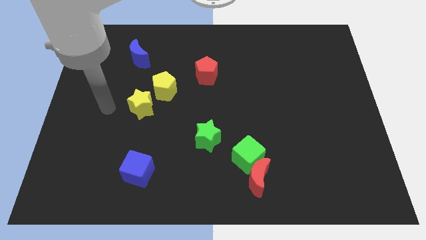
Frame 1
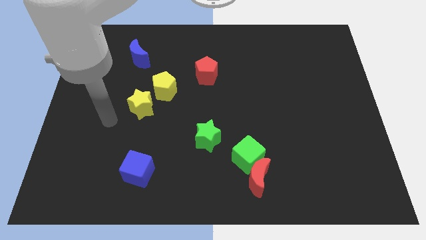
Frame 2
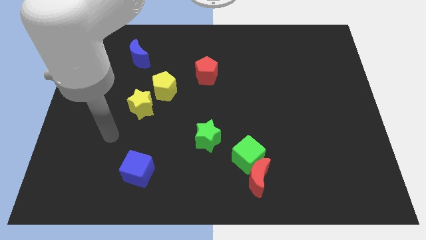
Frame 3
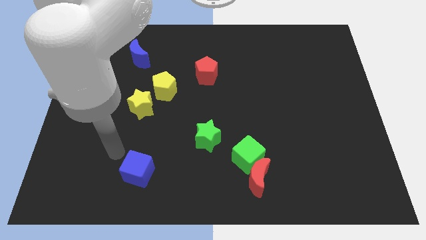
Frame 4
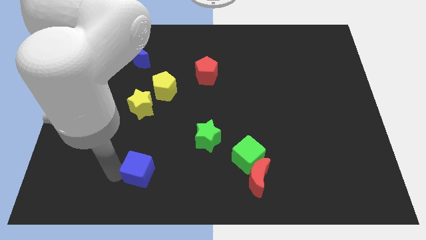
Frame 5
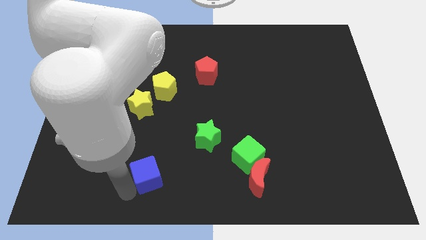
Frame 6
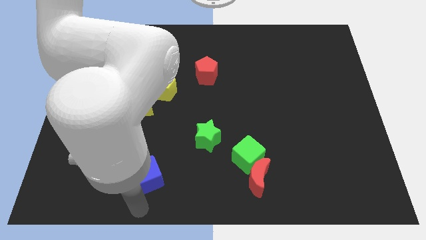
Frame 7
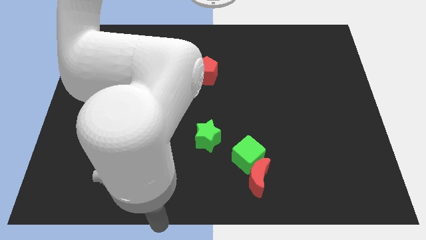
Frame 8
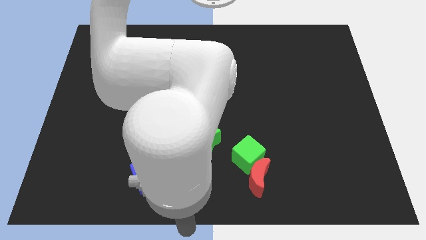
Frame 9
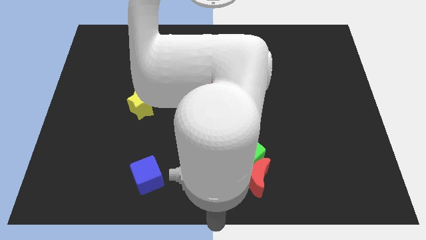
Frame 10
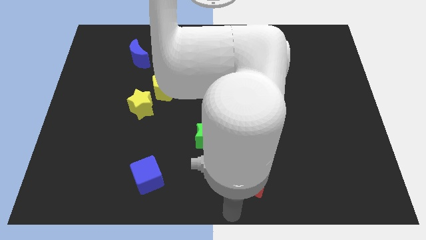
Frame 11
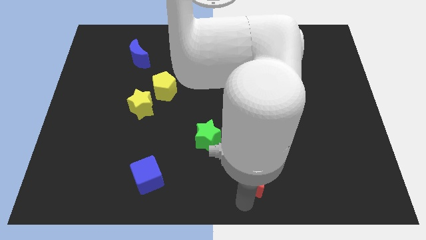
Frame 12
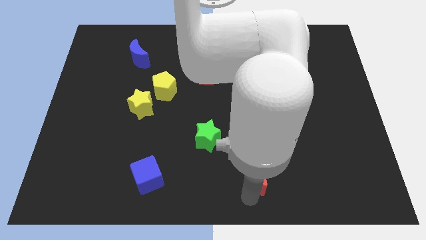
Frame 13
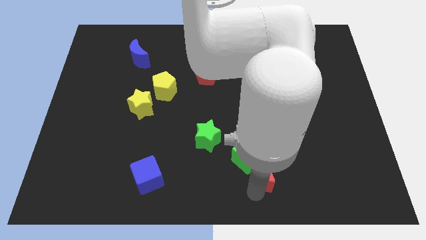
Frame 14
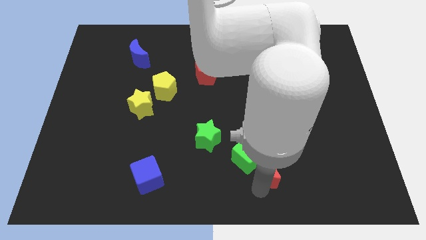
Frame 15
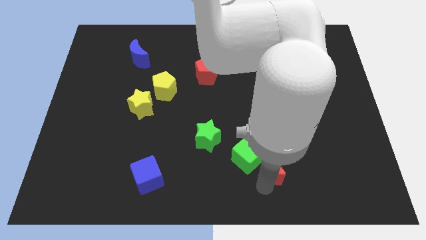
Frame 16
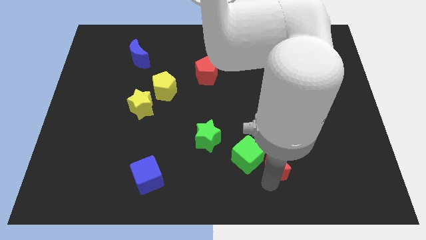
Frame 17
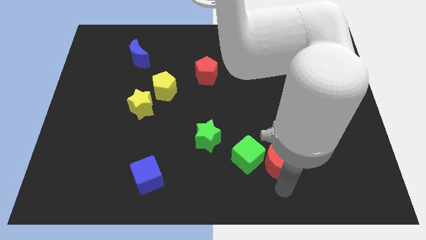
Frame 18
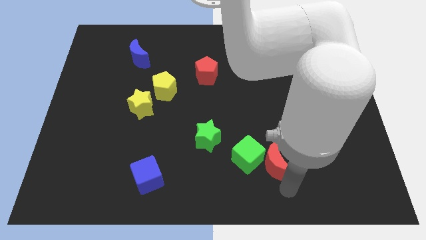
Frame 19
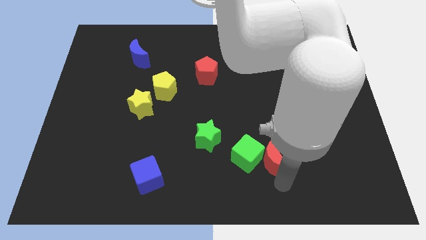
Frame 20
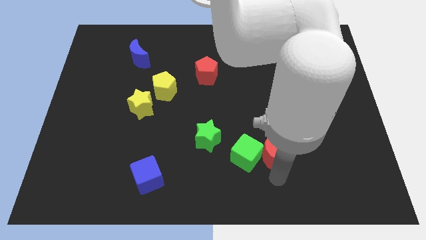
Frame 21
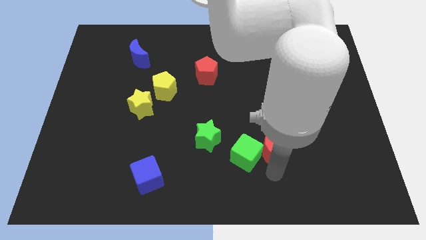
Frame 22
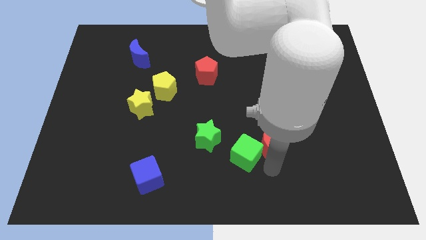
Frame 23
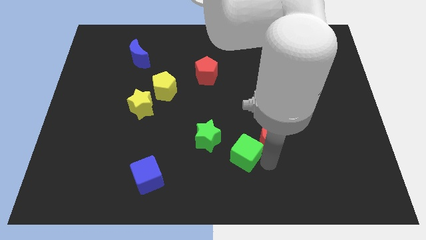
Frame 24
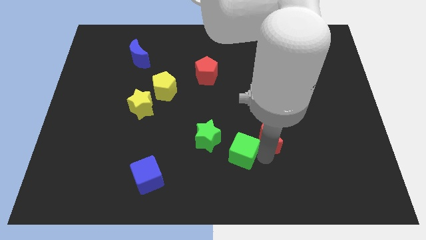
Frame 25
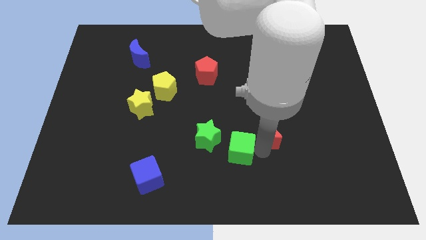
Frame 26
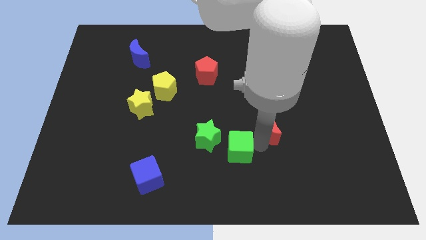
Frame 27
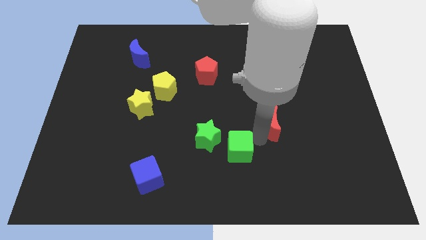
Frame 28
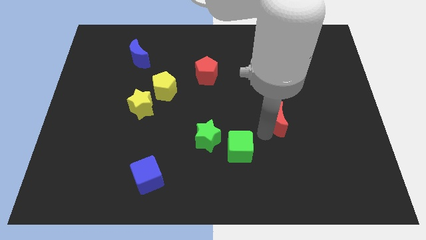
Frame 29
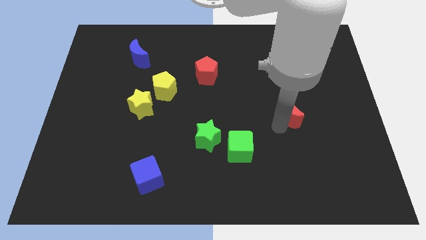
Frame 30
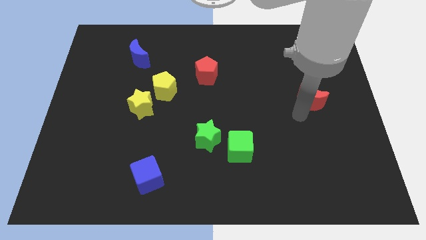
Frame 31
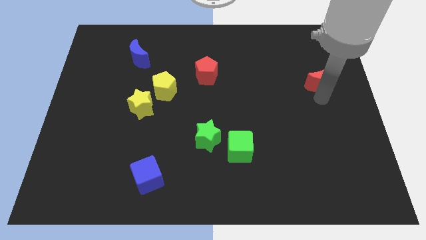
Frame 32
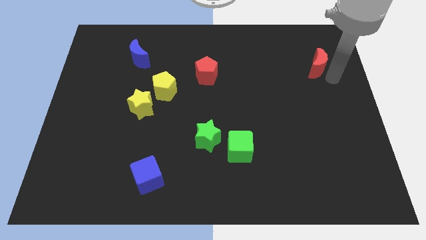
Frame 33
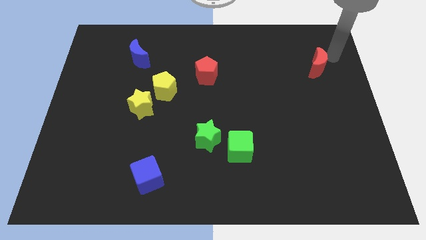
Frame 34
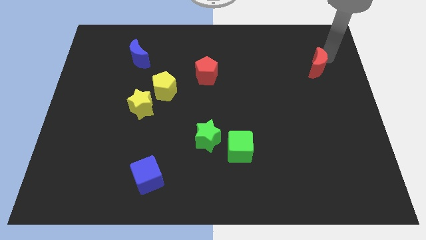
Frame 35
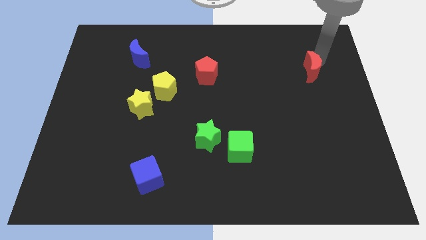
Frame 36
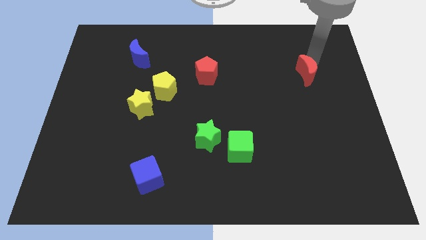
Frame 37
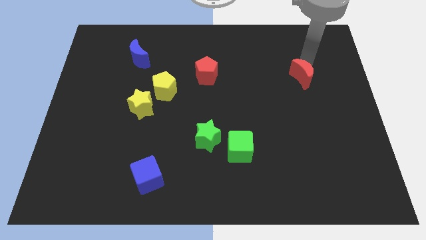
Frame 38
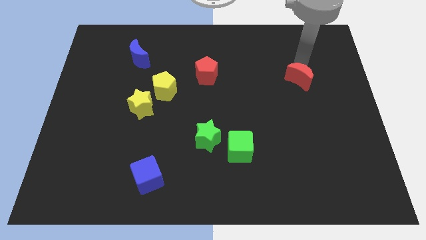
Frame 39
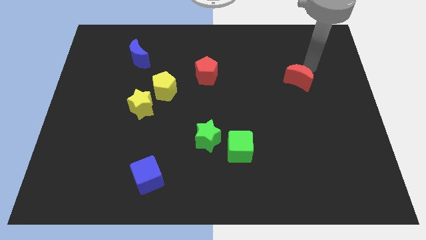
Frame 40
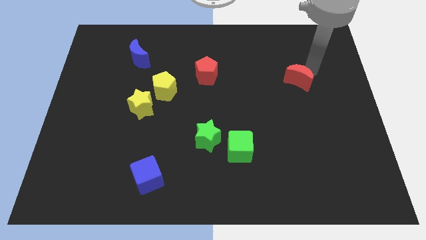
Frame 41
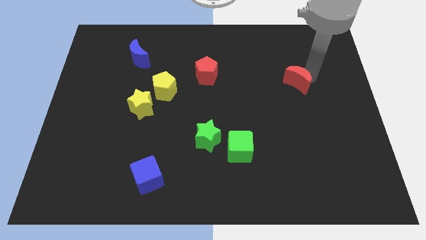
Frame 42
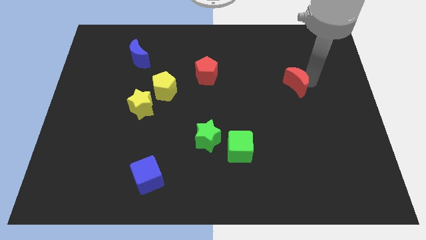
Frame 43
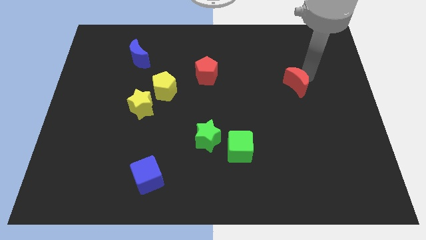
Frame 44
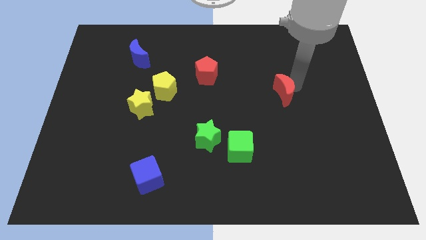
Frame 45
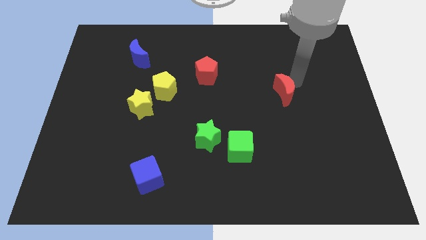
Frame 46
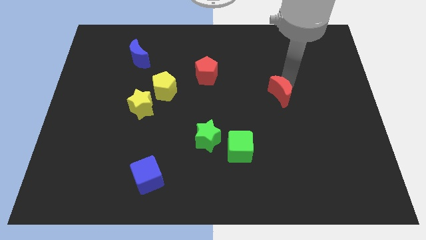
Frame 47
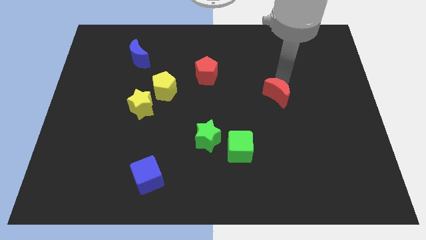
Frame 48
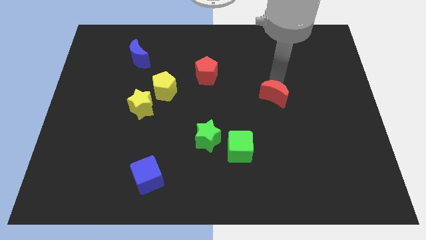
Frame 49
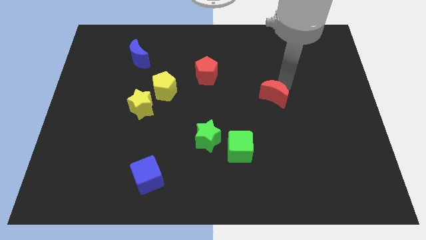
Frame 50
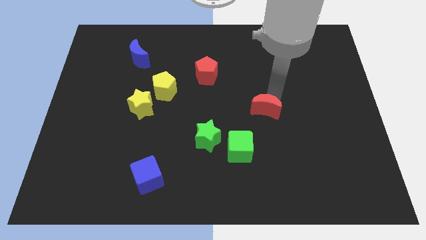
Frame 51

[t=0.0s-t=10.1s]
move the red moon to the middle

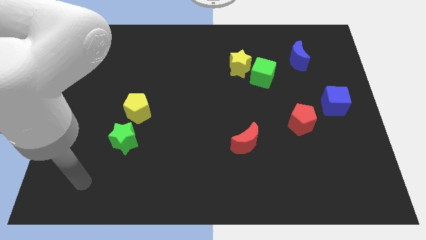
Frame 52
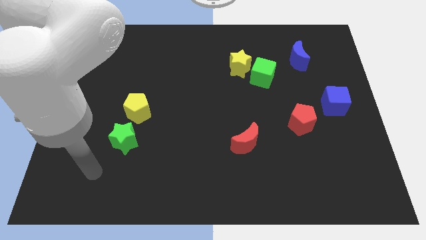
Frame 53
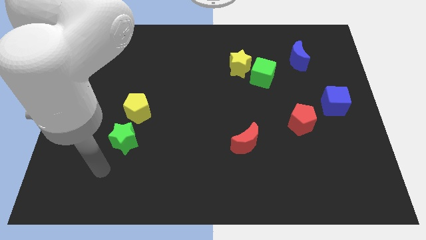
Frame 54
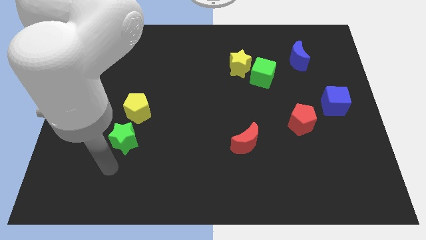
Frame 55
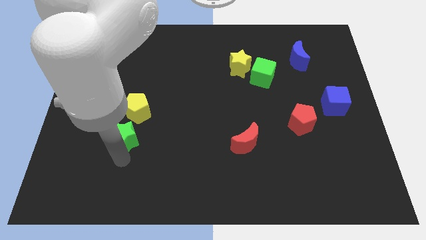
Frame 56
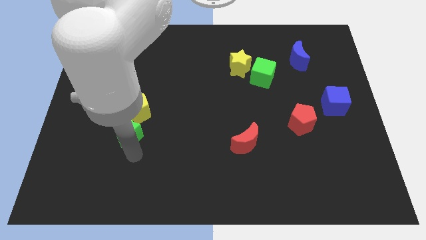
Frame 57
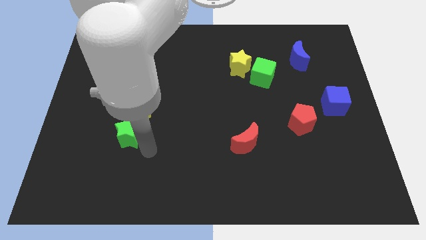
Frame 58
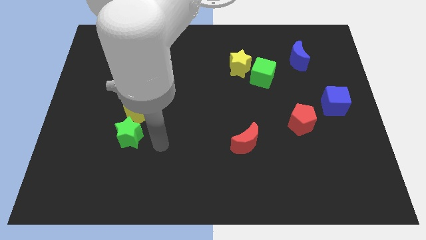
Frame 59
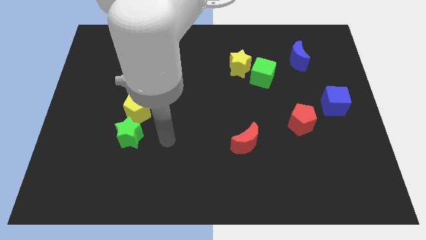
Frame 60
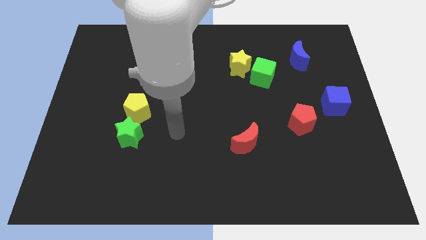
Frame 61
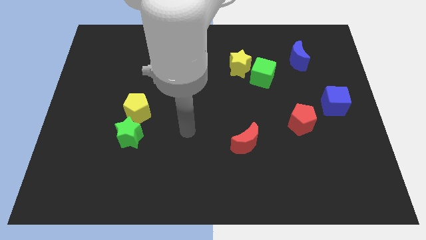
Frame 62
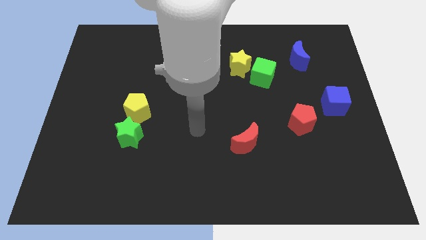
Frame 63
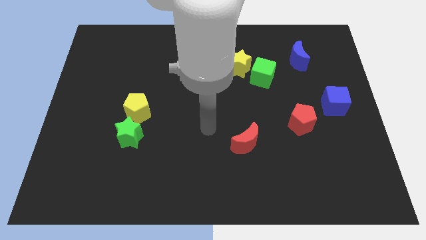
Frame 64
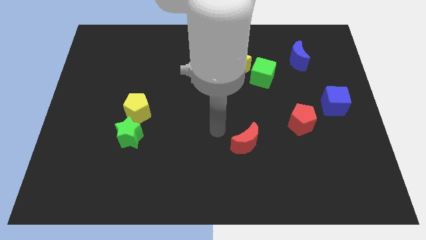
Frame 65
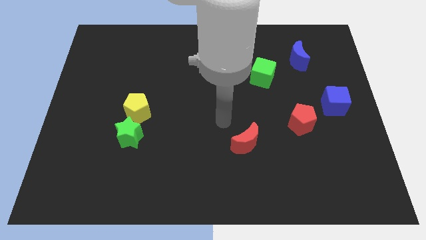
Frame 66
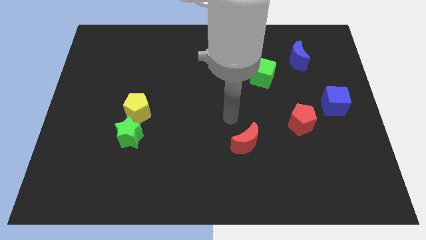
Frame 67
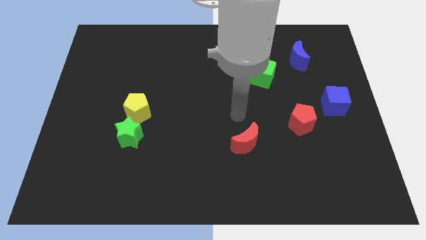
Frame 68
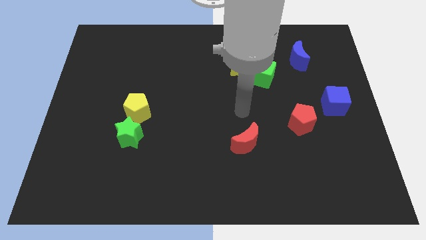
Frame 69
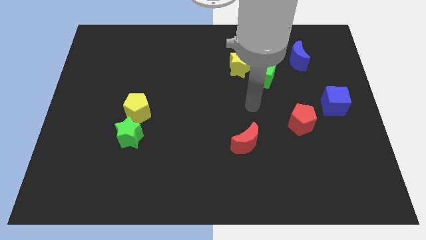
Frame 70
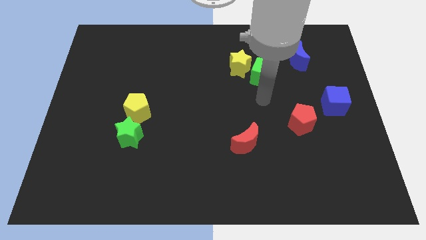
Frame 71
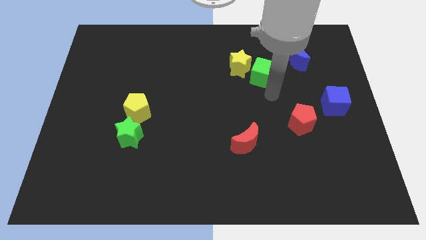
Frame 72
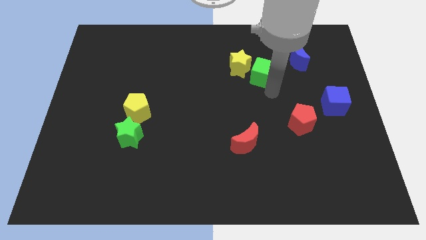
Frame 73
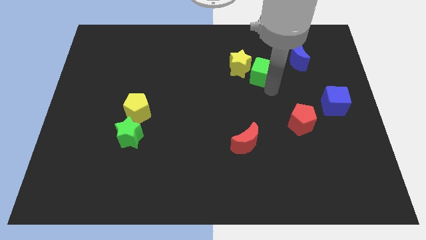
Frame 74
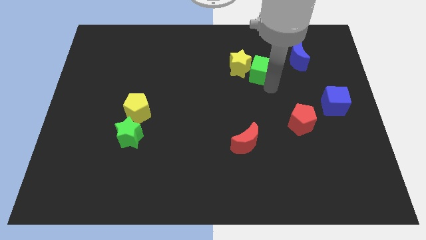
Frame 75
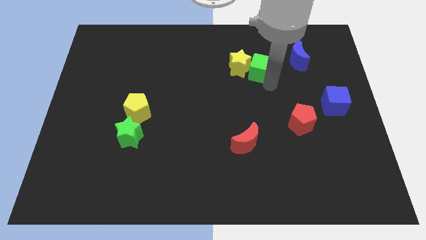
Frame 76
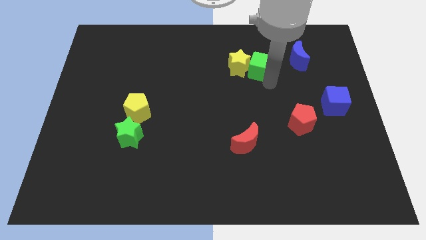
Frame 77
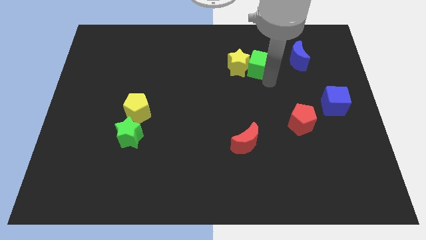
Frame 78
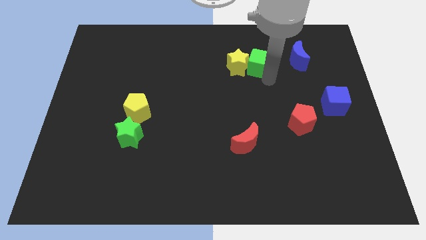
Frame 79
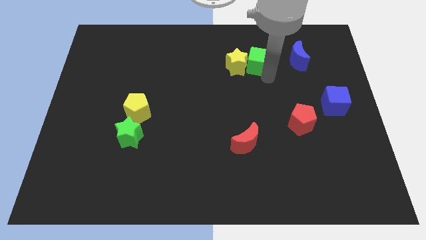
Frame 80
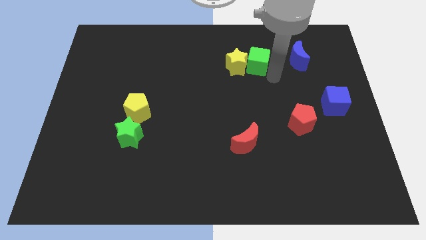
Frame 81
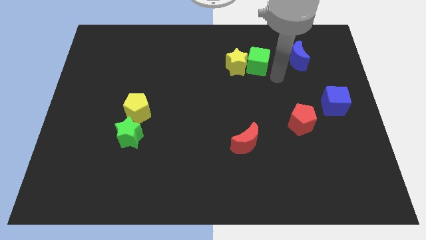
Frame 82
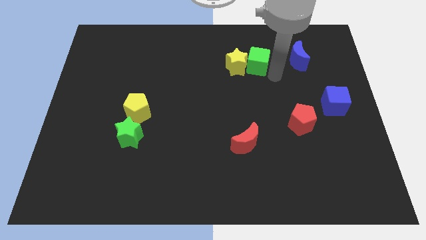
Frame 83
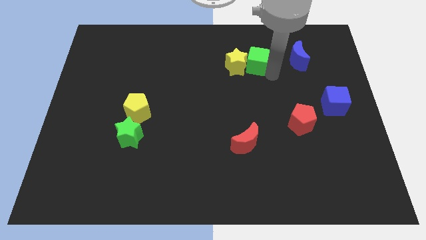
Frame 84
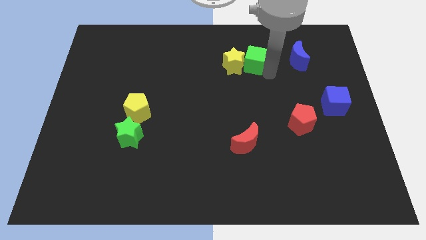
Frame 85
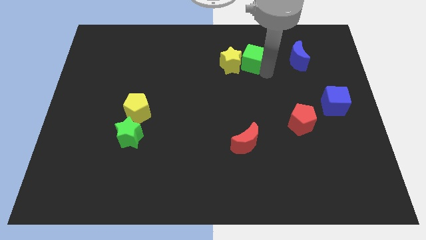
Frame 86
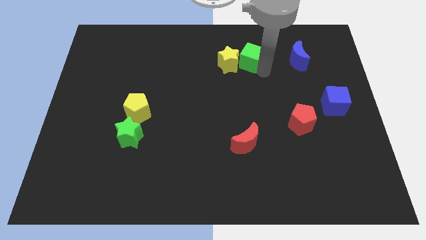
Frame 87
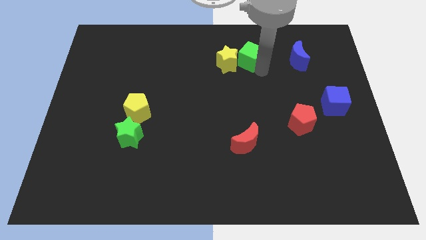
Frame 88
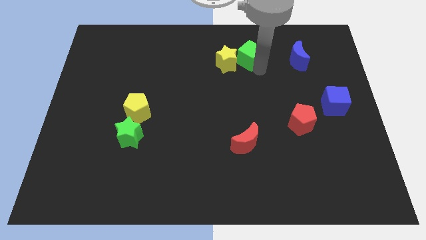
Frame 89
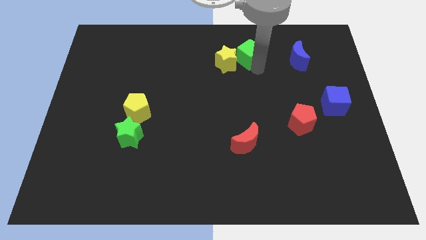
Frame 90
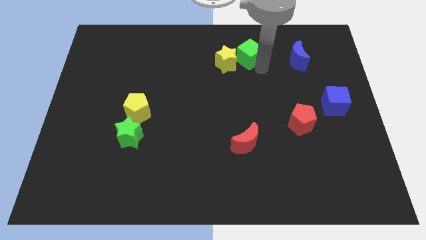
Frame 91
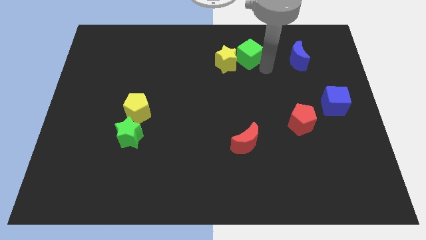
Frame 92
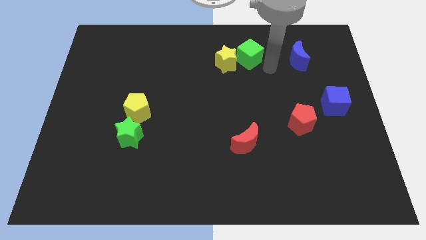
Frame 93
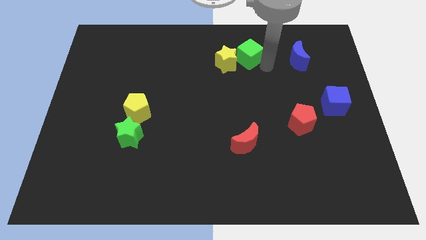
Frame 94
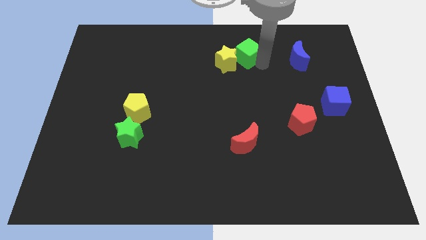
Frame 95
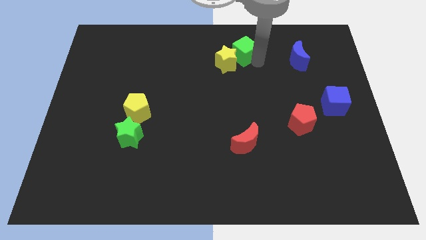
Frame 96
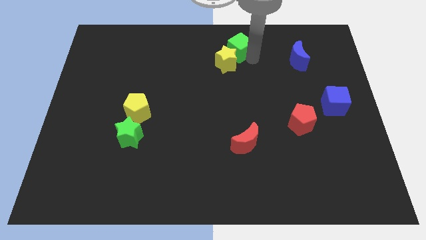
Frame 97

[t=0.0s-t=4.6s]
put the green cube to the top side
